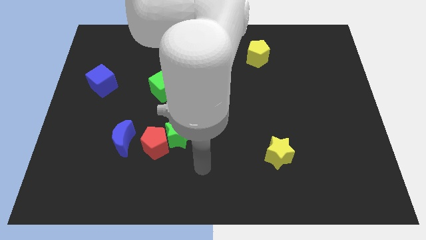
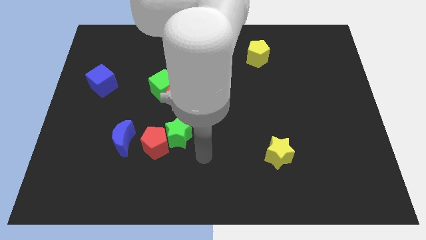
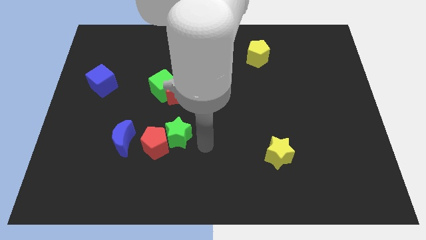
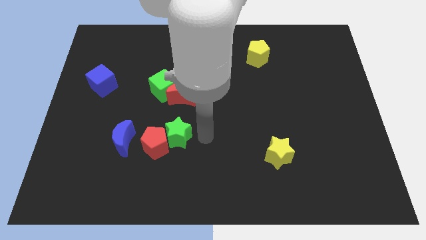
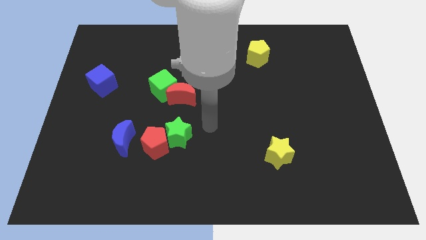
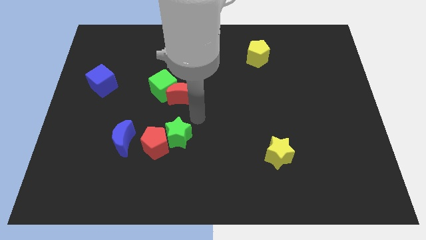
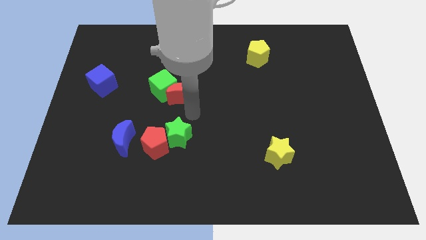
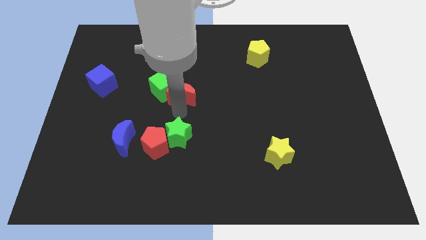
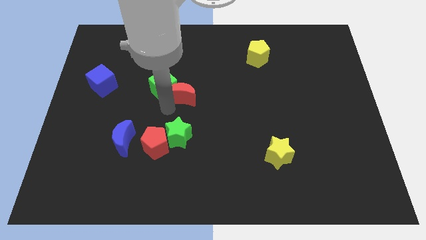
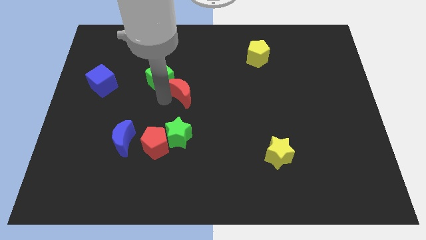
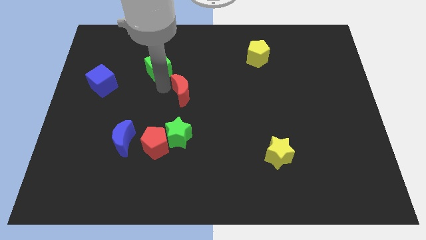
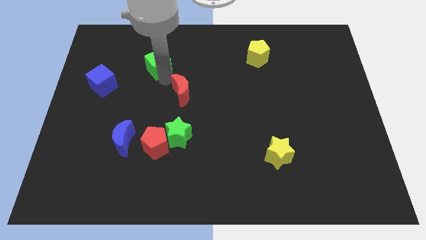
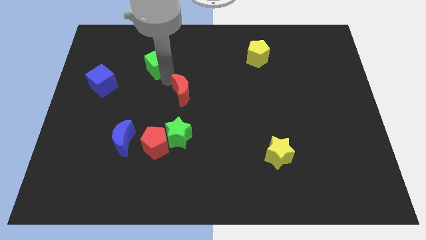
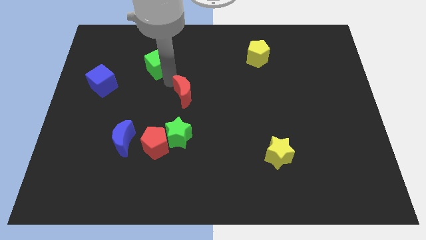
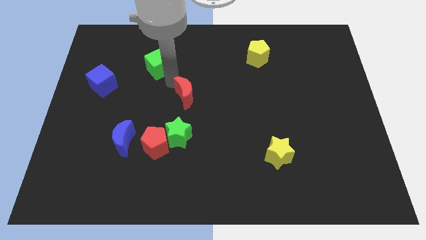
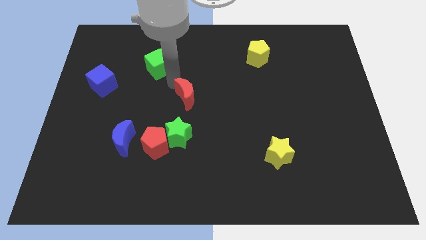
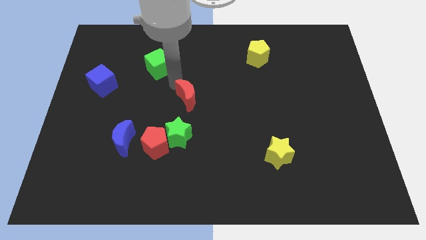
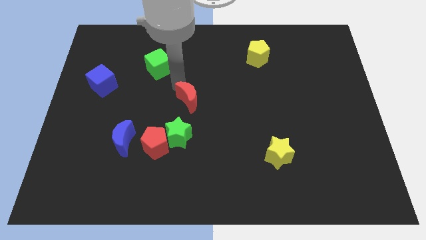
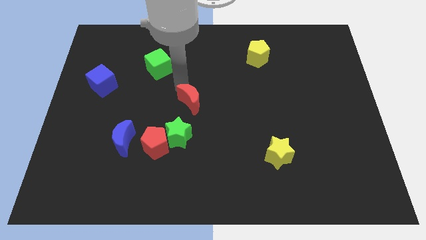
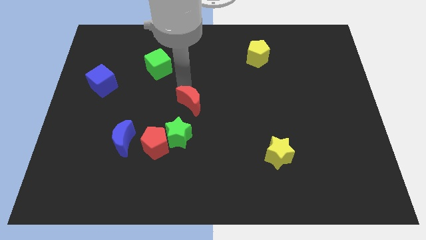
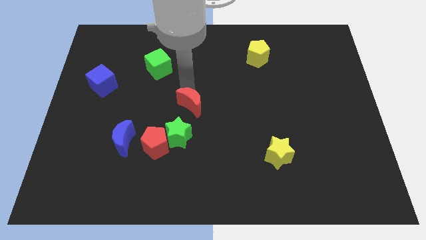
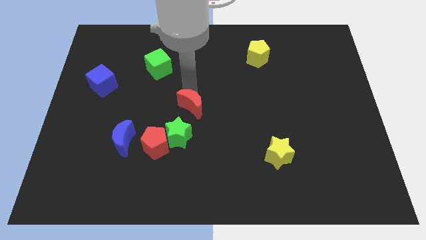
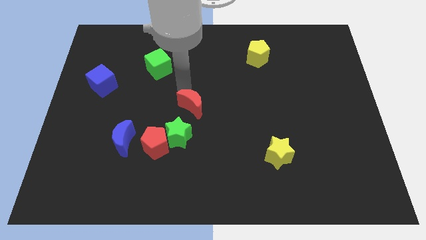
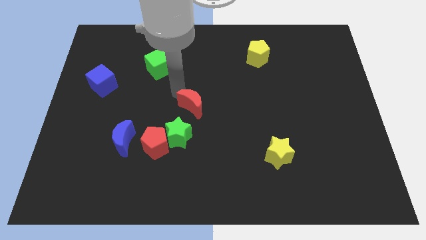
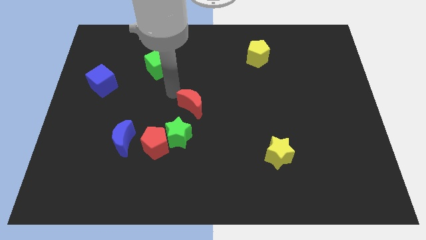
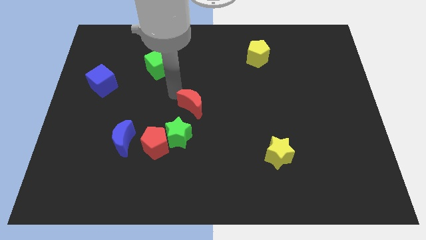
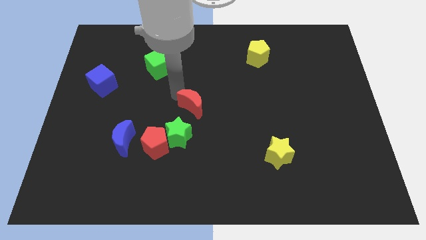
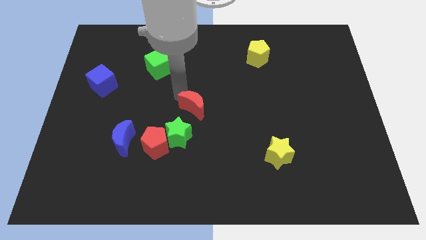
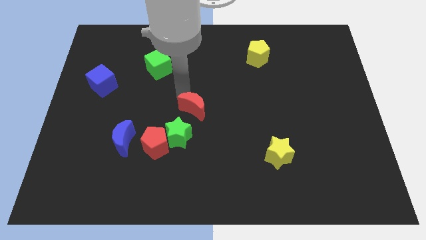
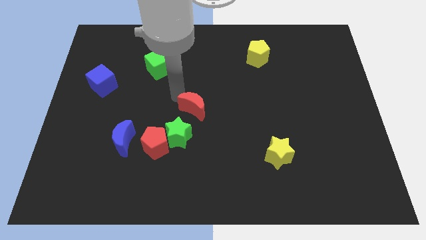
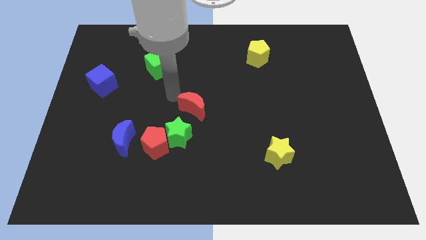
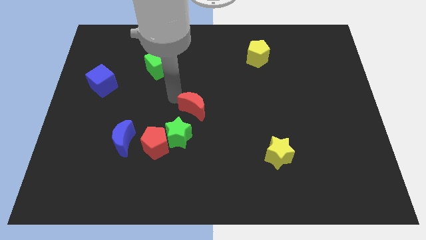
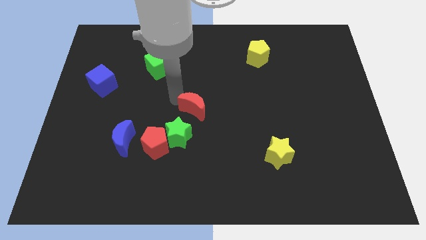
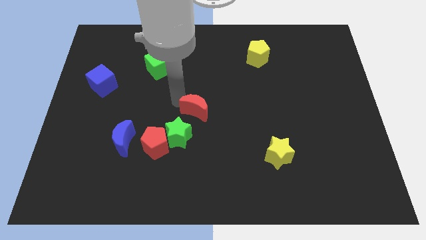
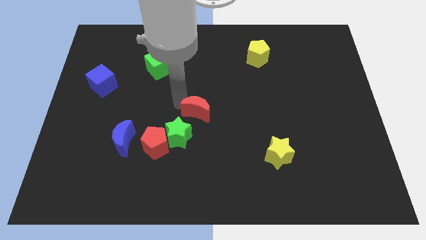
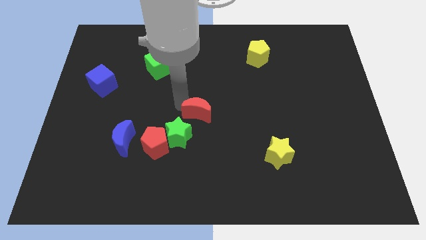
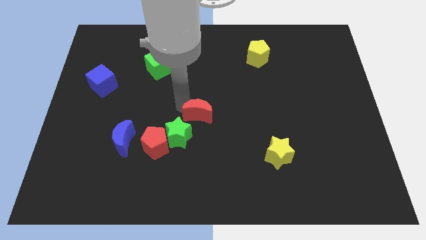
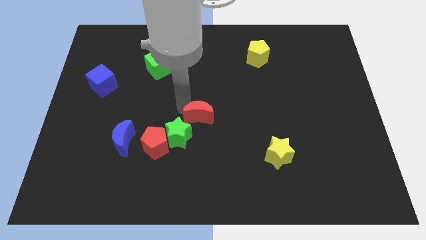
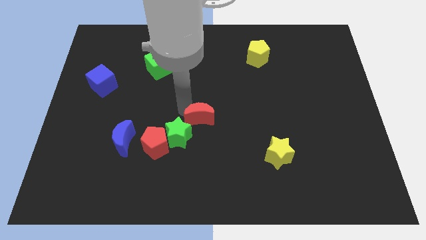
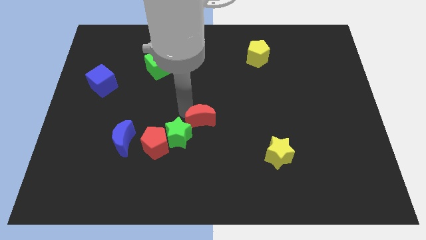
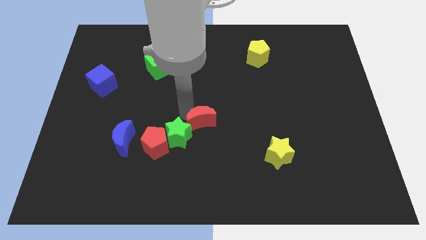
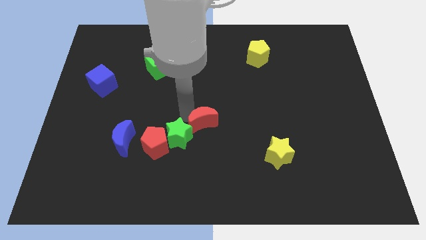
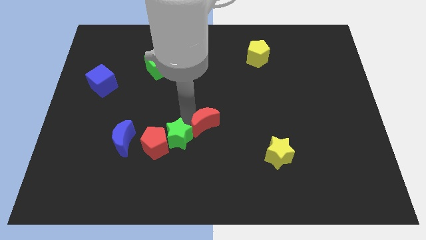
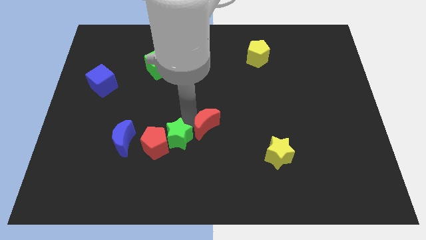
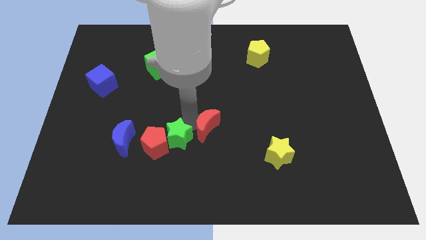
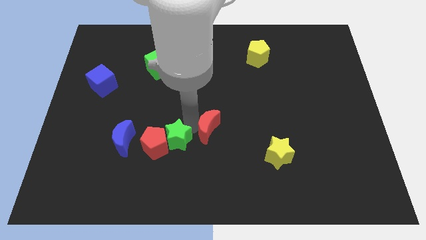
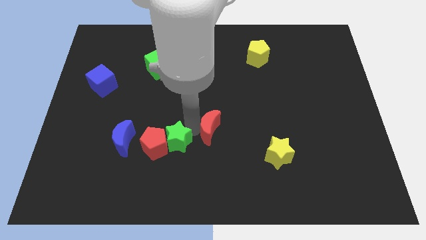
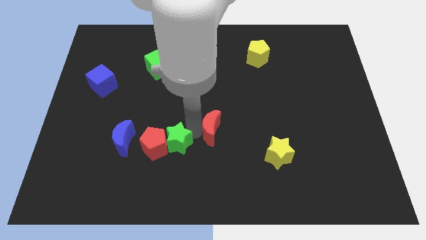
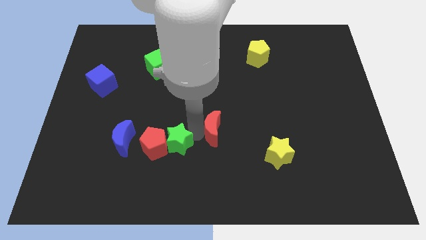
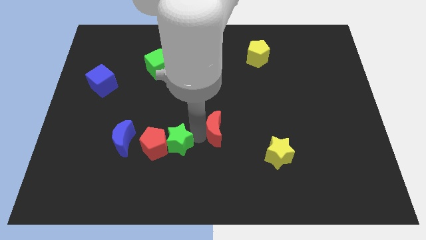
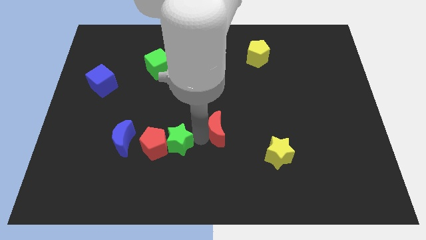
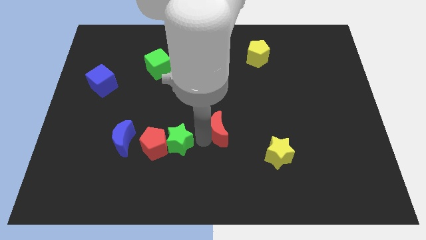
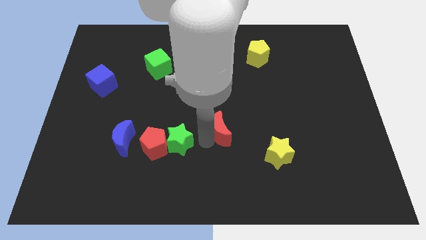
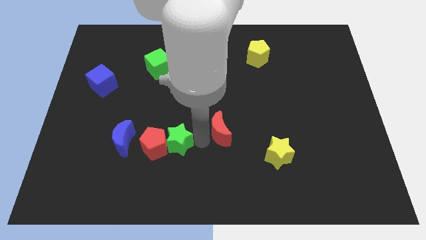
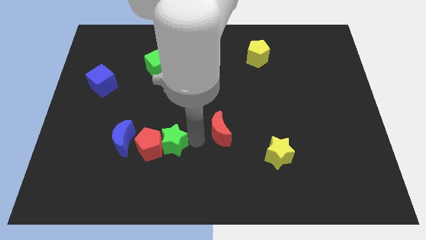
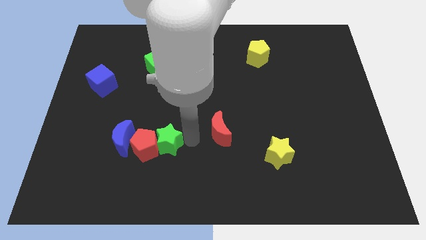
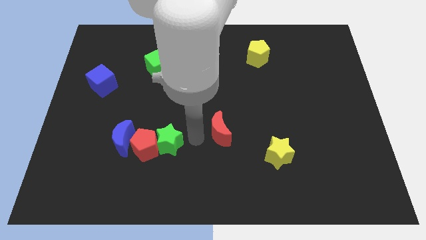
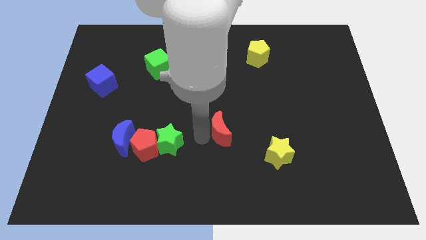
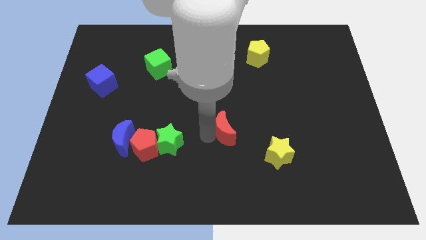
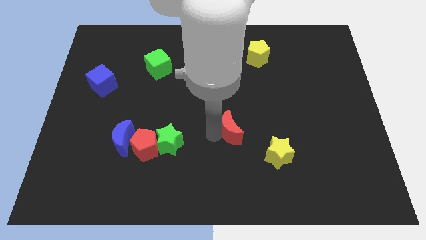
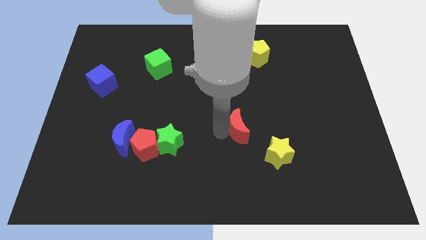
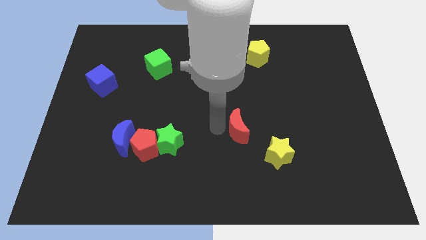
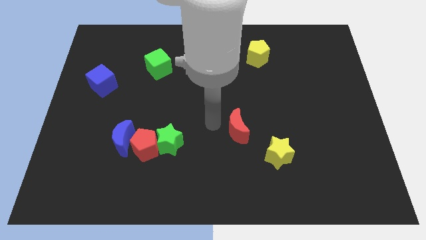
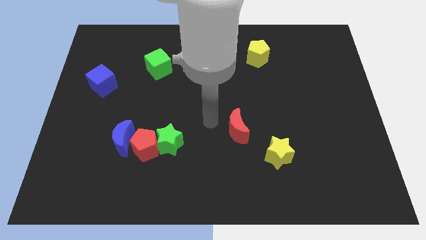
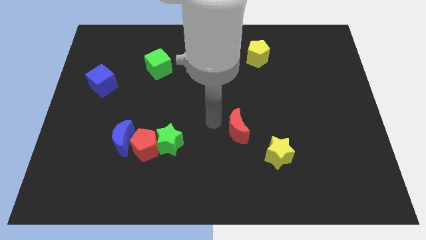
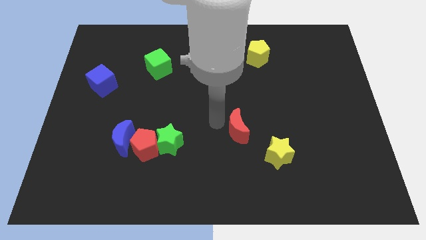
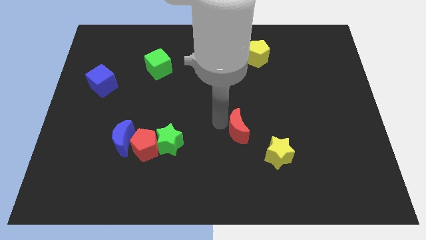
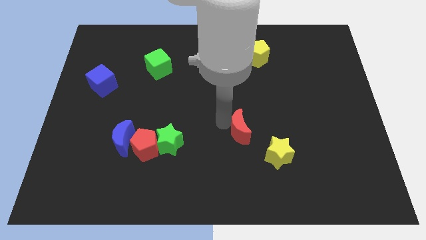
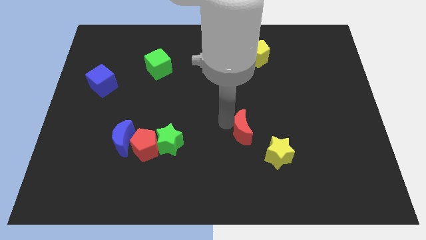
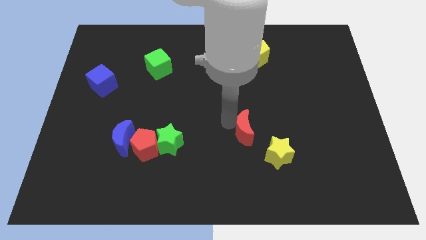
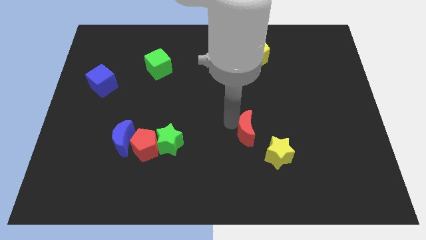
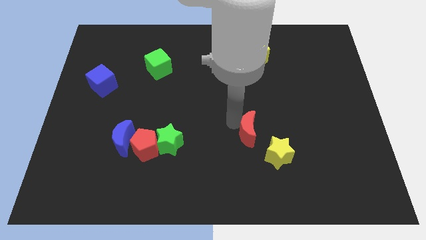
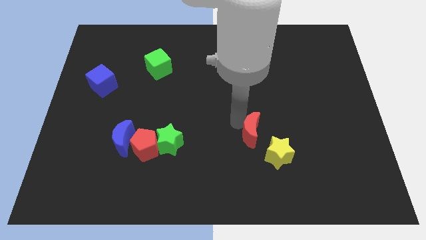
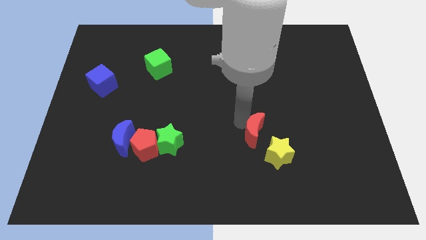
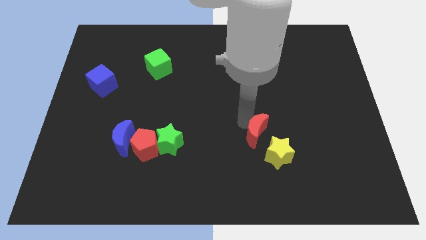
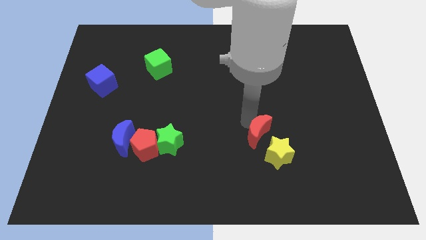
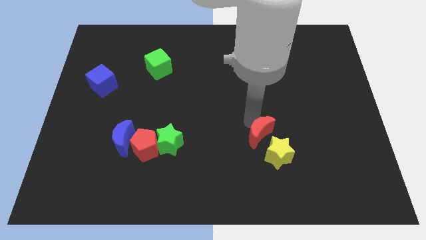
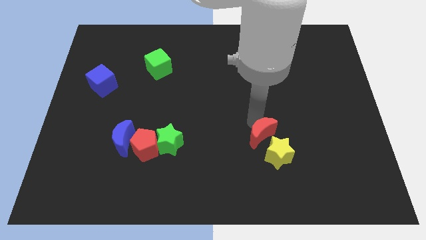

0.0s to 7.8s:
move the red moon towards the yellow star
